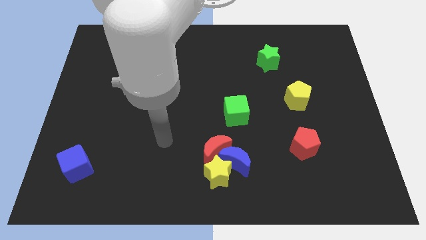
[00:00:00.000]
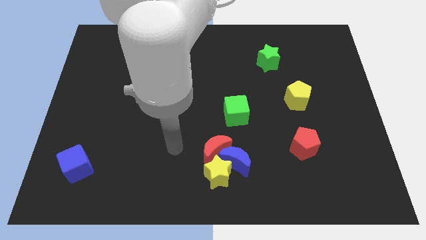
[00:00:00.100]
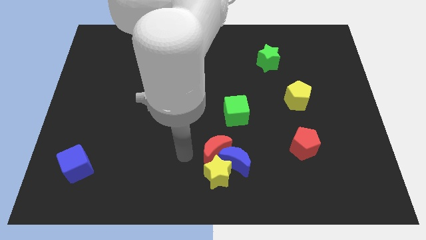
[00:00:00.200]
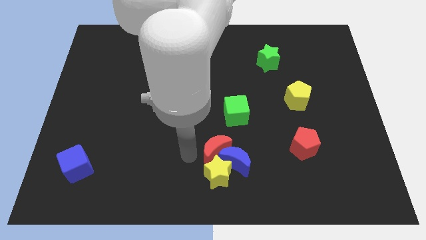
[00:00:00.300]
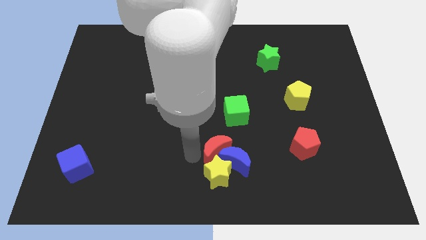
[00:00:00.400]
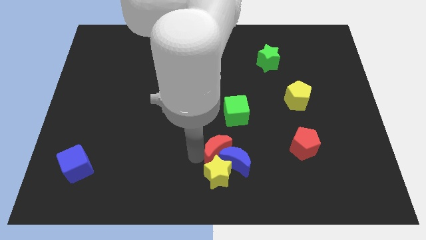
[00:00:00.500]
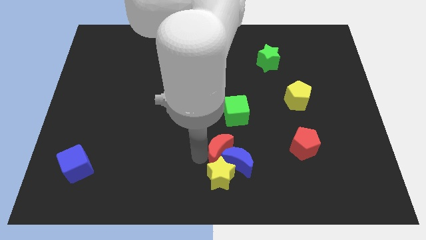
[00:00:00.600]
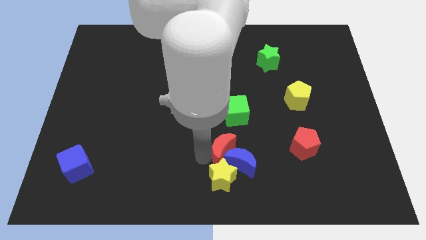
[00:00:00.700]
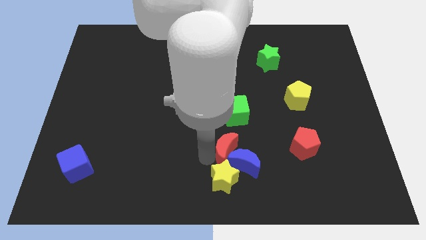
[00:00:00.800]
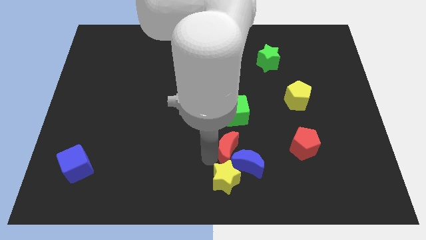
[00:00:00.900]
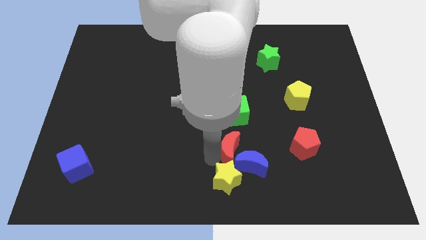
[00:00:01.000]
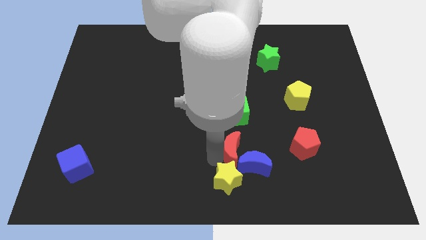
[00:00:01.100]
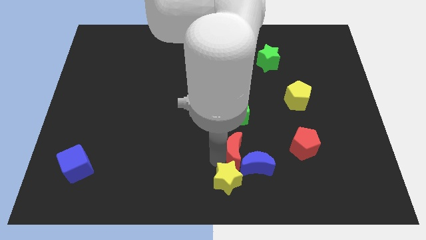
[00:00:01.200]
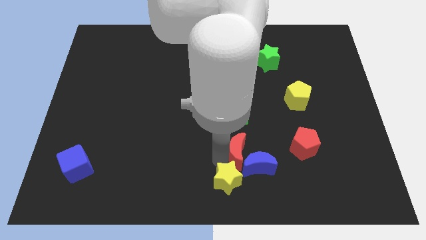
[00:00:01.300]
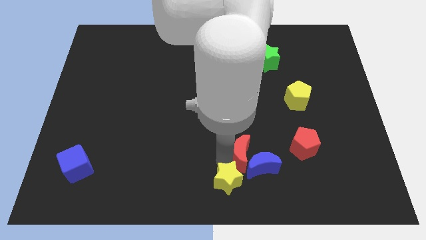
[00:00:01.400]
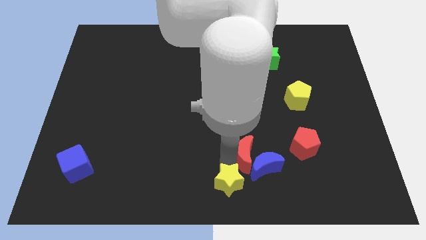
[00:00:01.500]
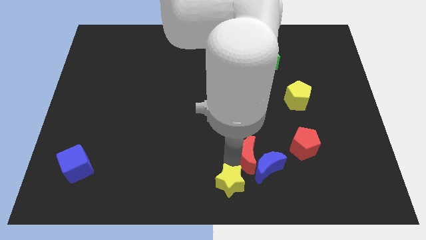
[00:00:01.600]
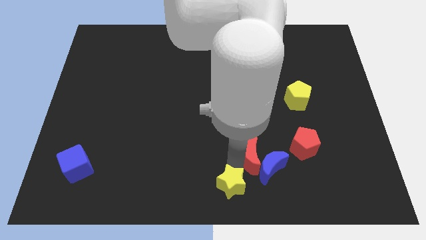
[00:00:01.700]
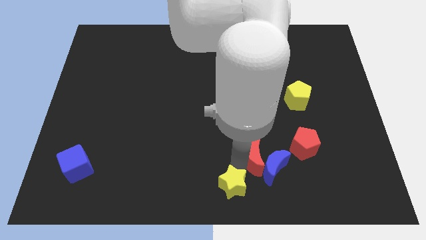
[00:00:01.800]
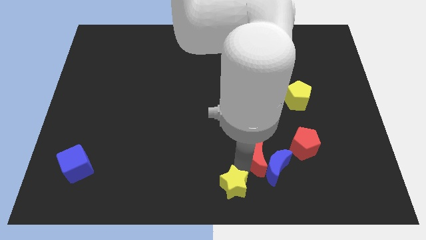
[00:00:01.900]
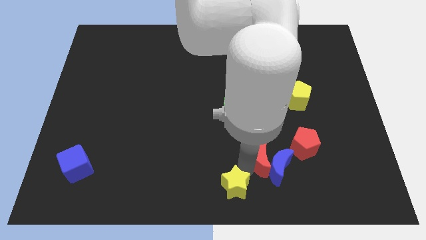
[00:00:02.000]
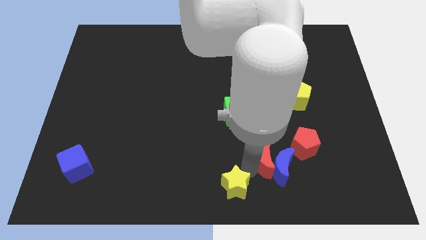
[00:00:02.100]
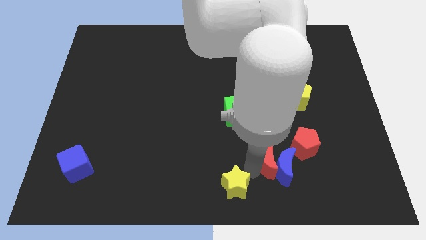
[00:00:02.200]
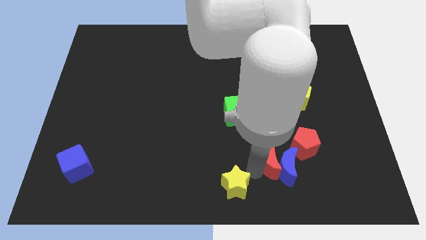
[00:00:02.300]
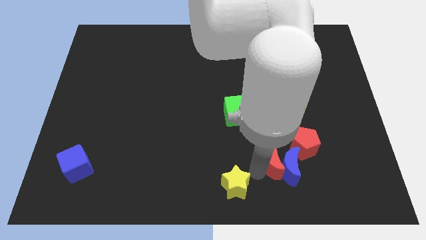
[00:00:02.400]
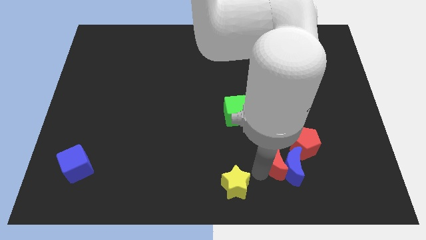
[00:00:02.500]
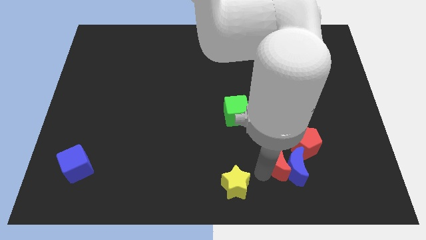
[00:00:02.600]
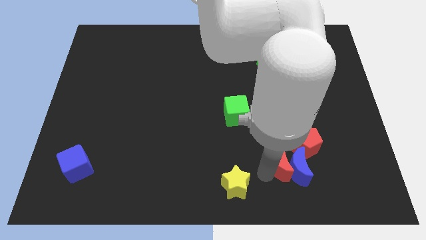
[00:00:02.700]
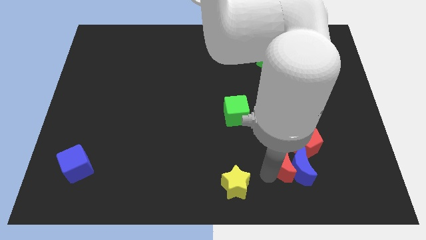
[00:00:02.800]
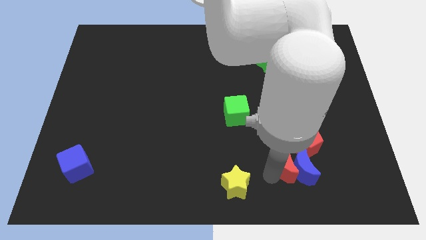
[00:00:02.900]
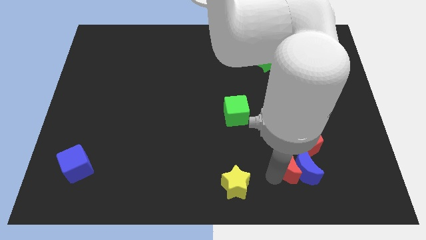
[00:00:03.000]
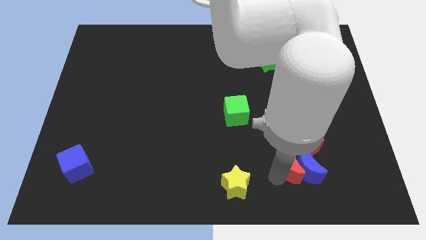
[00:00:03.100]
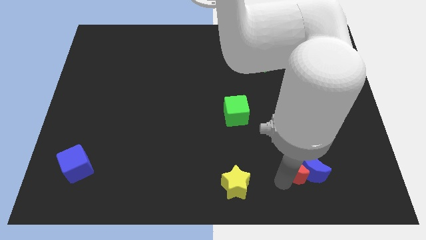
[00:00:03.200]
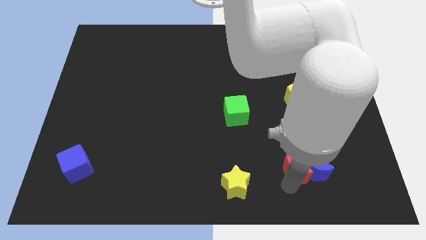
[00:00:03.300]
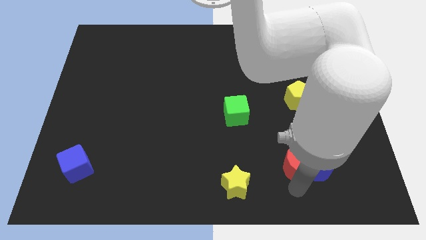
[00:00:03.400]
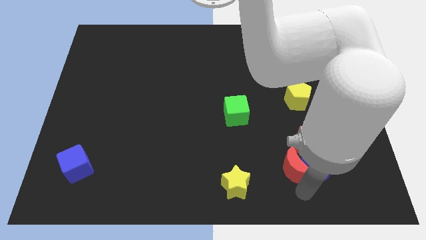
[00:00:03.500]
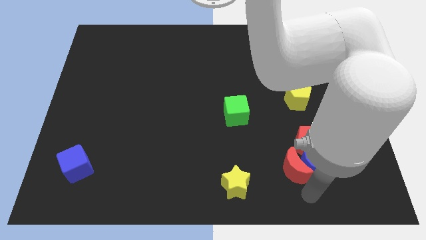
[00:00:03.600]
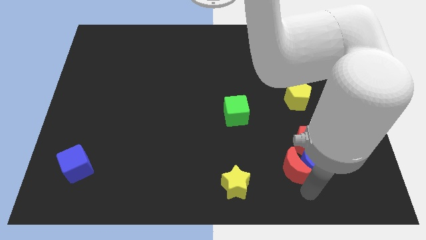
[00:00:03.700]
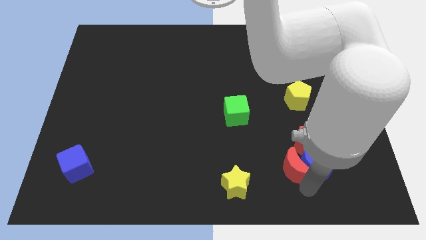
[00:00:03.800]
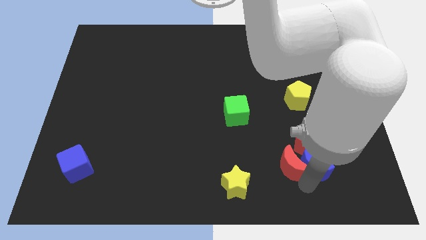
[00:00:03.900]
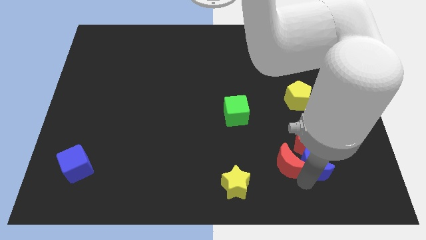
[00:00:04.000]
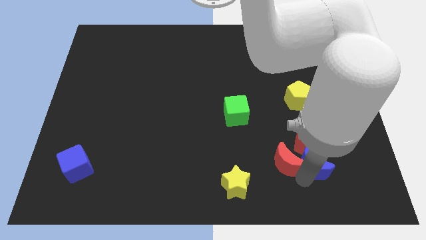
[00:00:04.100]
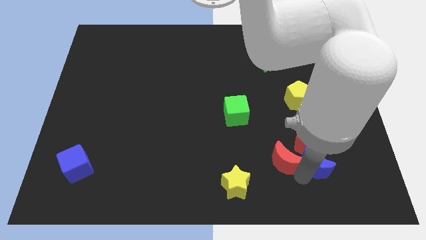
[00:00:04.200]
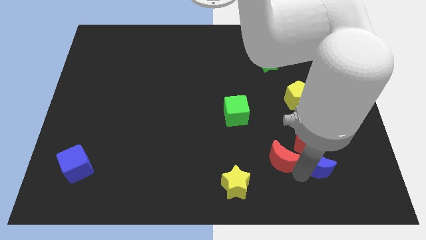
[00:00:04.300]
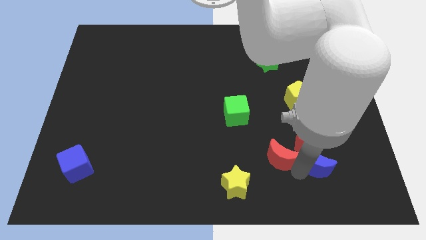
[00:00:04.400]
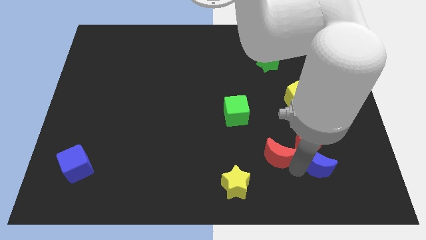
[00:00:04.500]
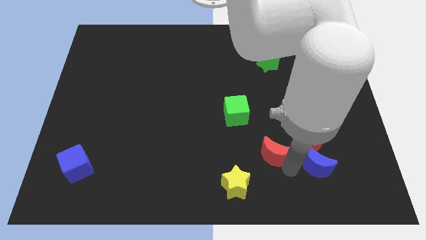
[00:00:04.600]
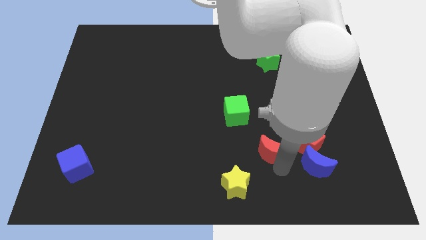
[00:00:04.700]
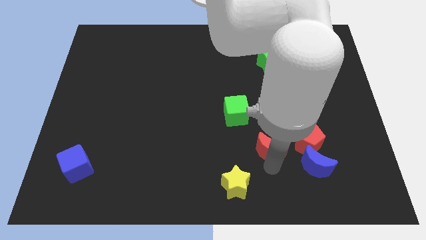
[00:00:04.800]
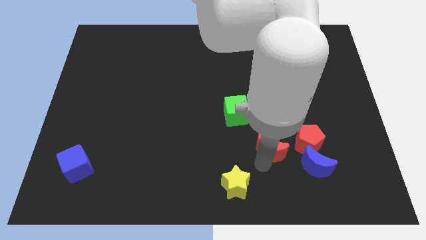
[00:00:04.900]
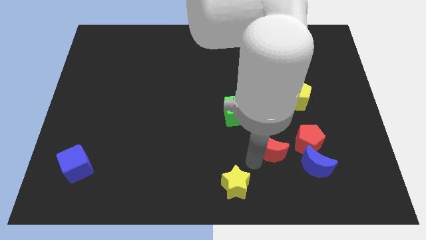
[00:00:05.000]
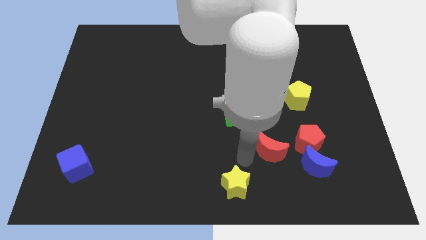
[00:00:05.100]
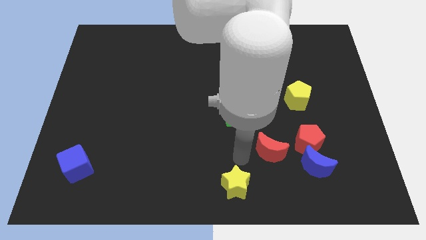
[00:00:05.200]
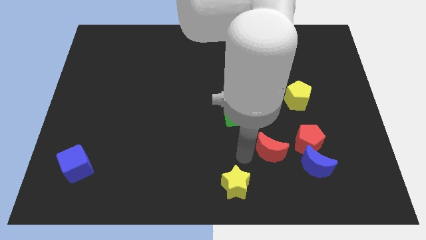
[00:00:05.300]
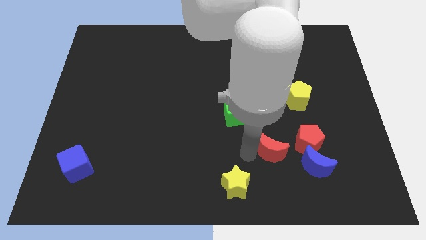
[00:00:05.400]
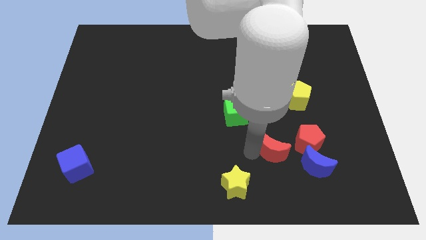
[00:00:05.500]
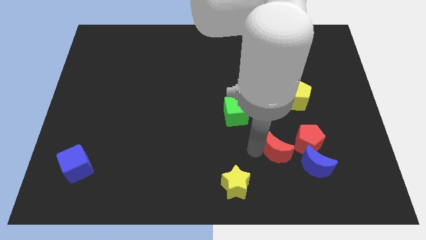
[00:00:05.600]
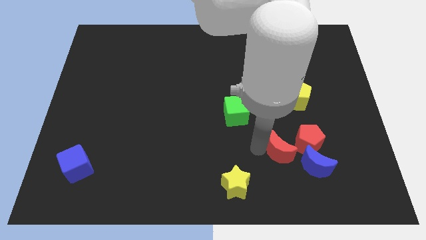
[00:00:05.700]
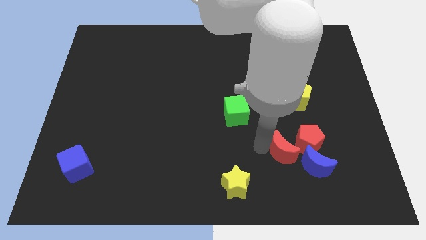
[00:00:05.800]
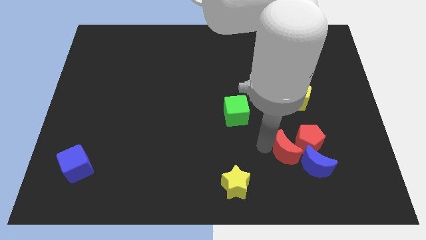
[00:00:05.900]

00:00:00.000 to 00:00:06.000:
push the red moon towards the red pentagon
